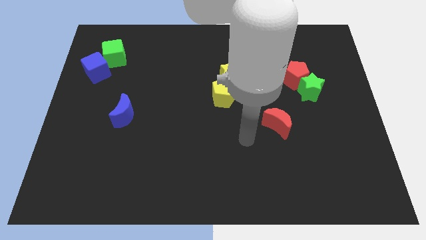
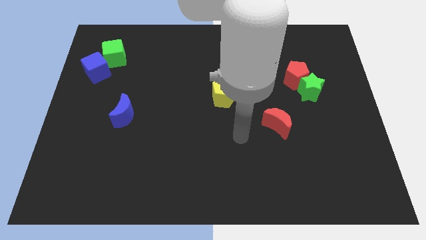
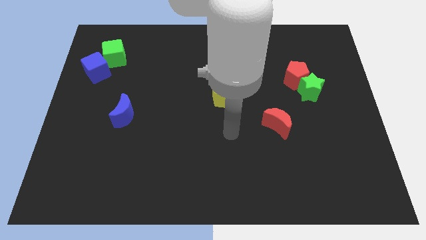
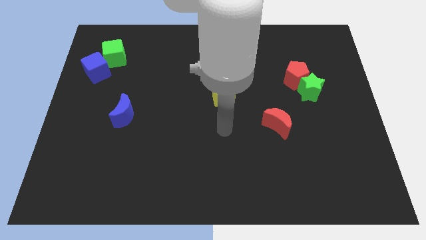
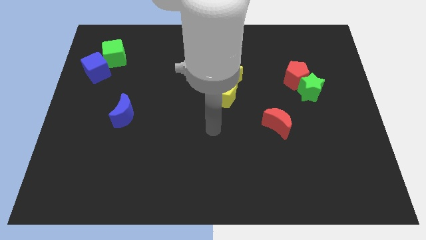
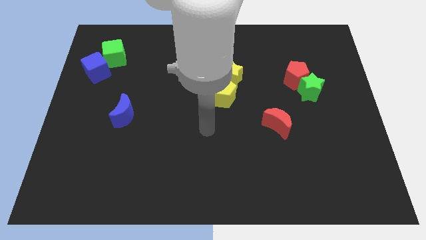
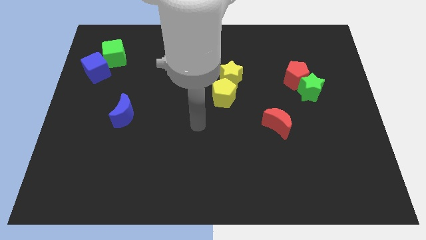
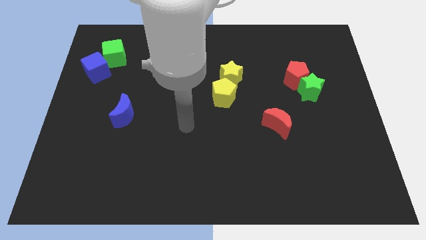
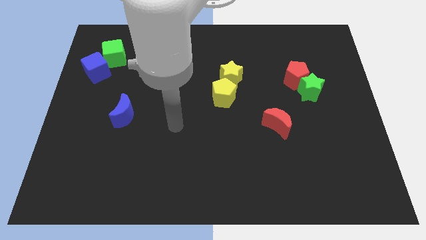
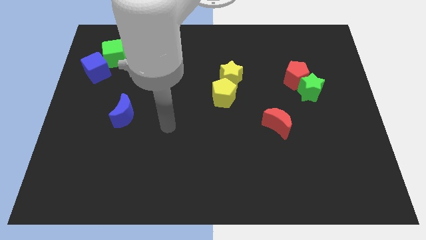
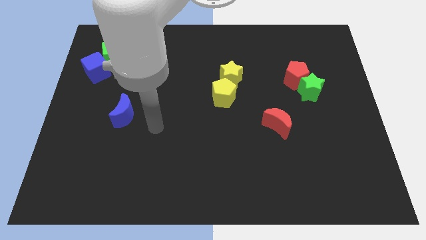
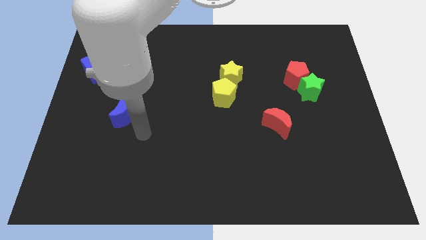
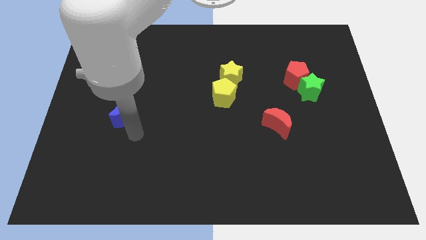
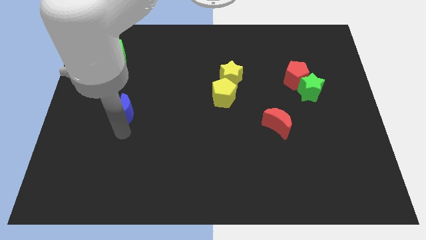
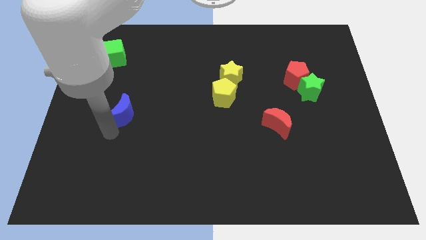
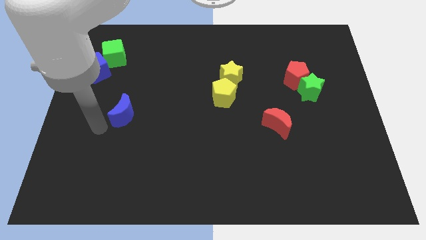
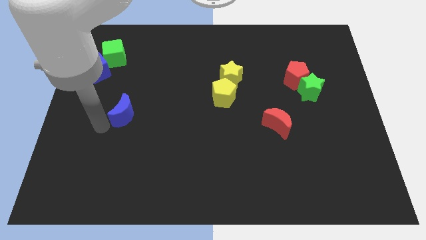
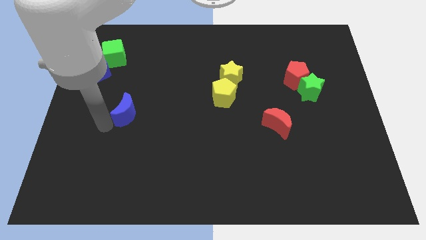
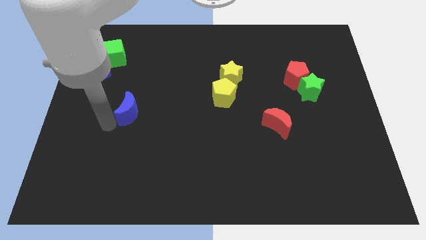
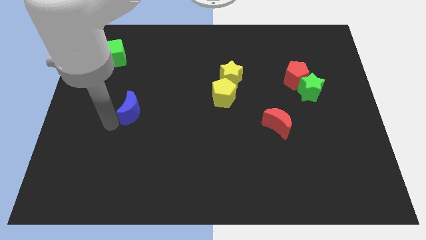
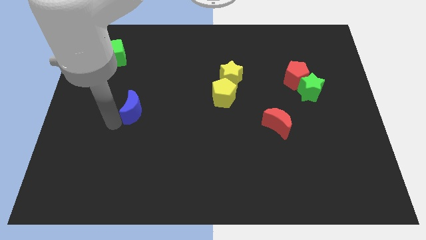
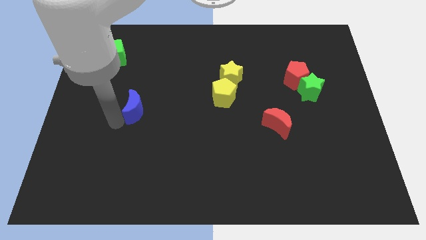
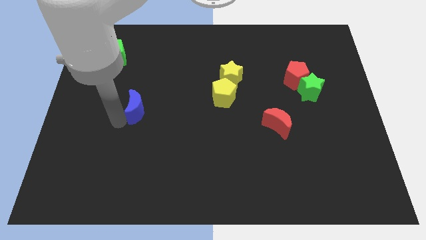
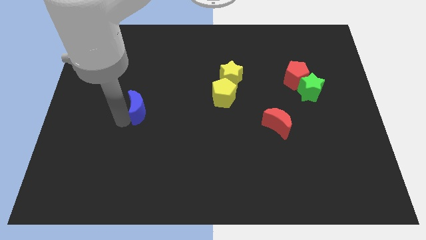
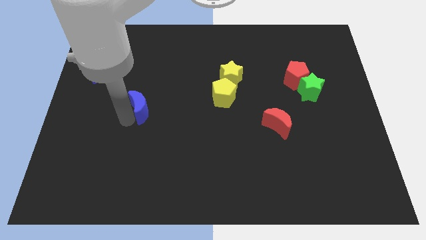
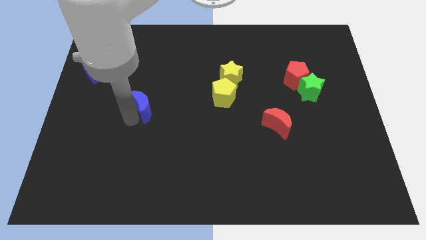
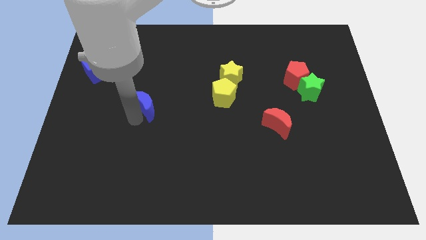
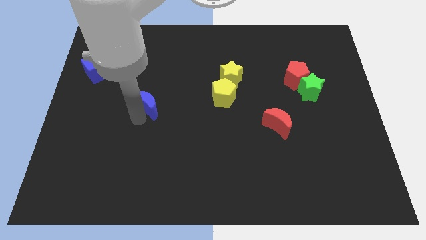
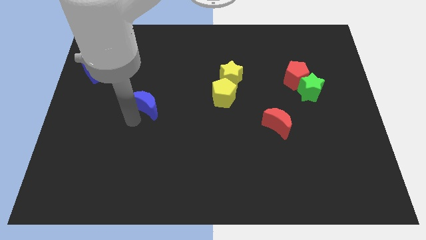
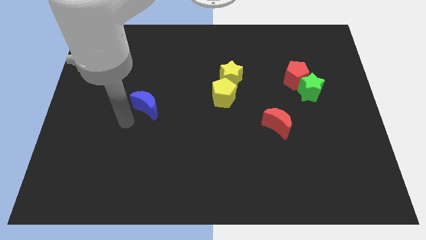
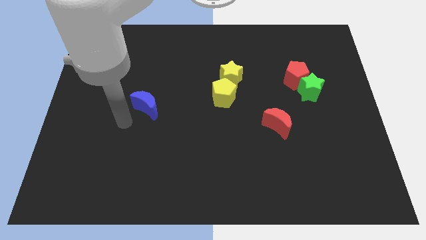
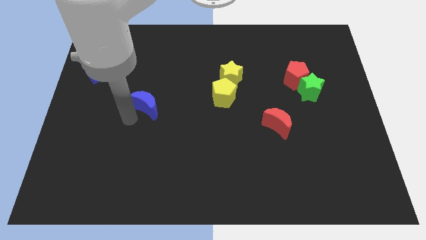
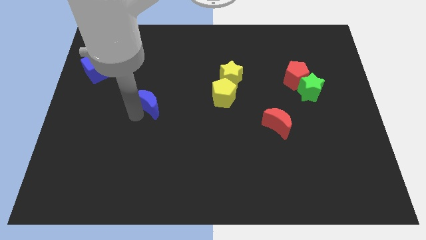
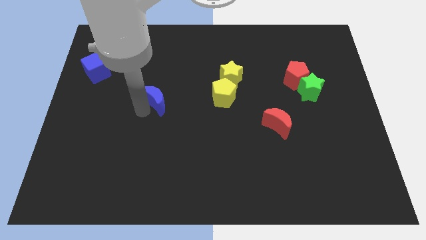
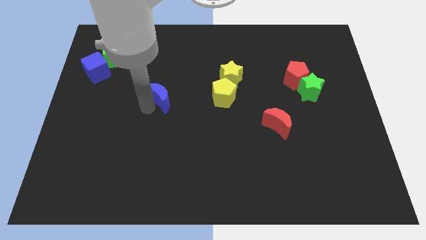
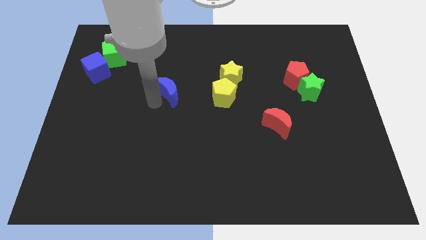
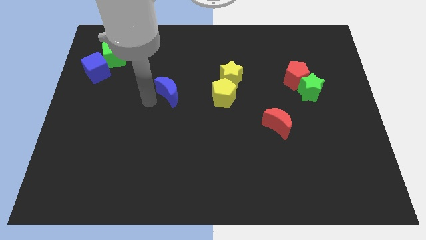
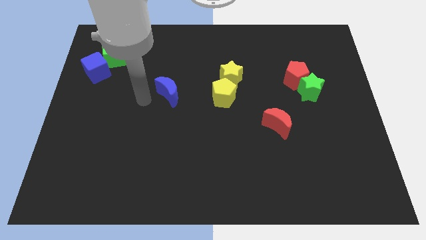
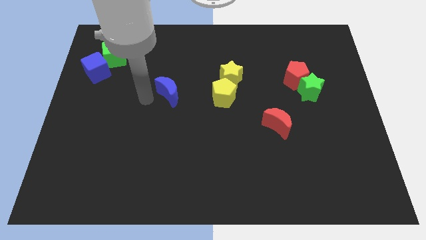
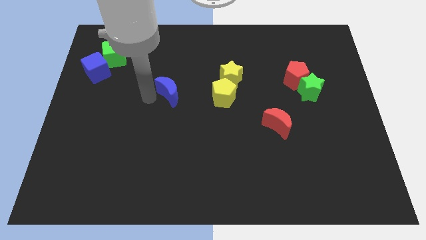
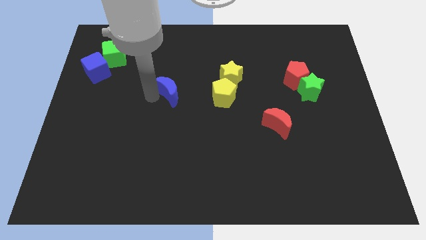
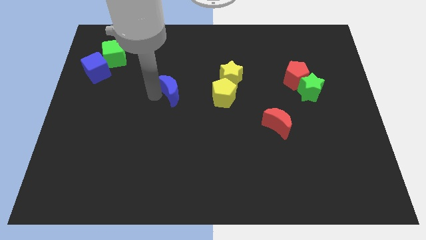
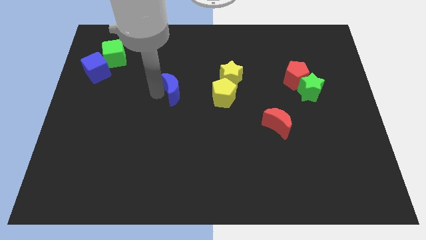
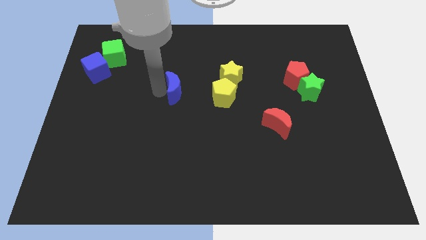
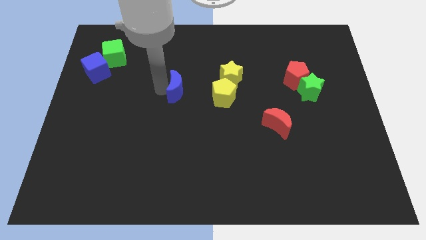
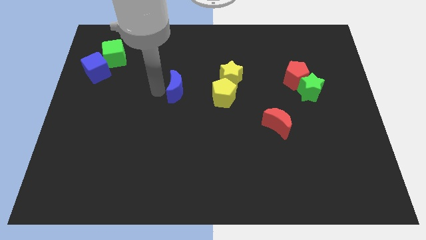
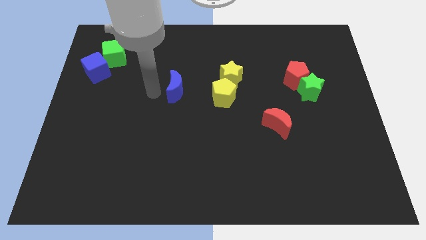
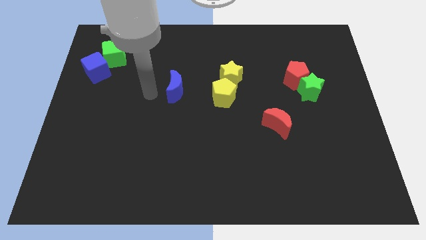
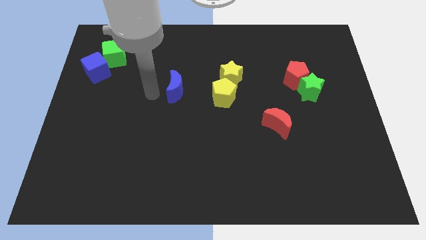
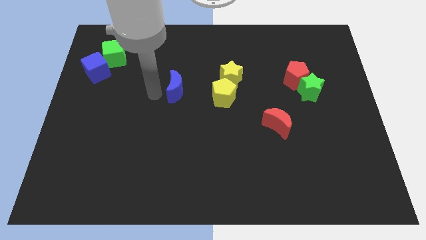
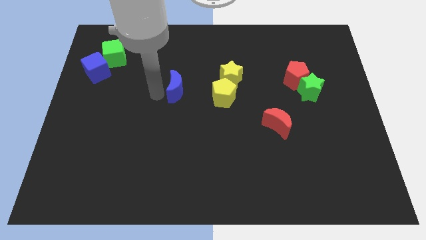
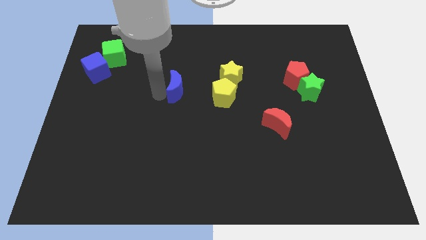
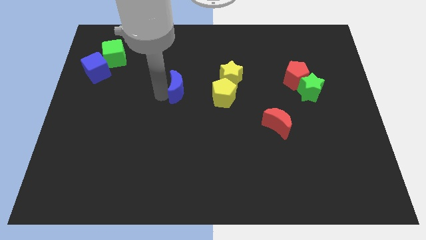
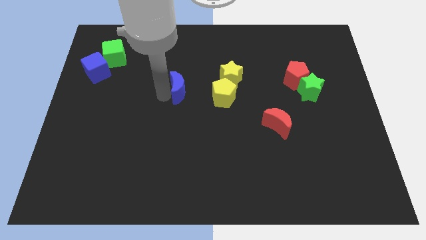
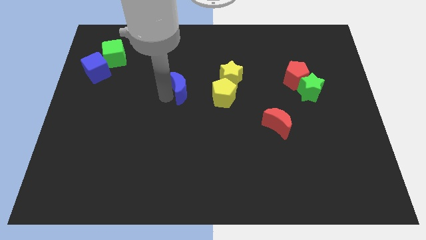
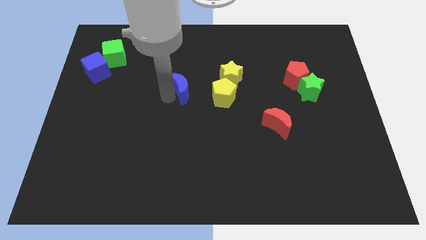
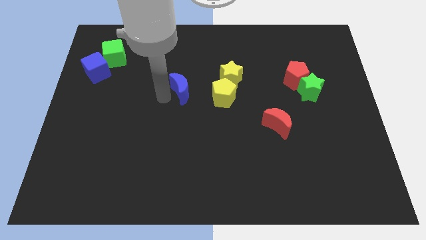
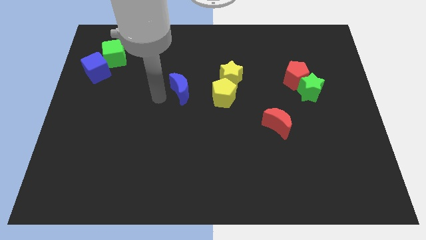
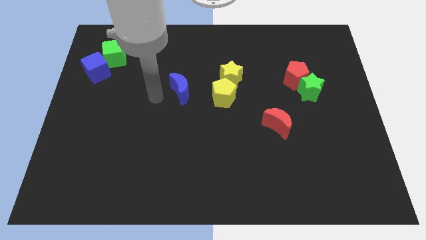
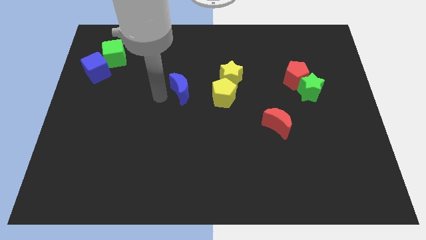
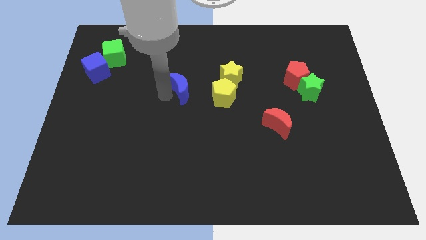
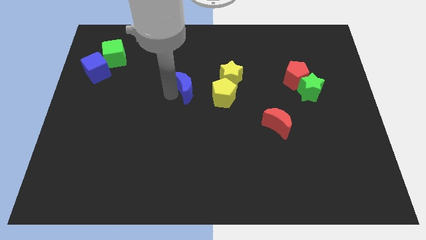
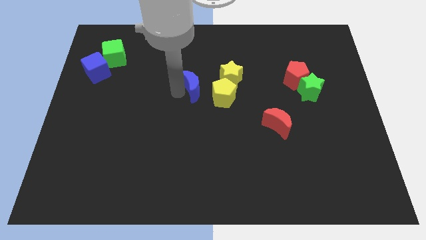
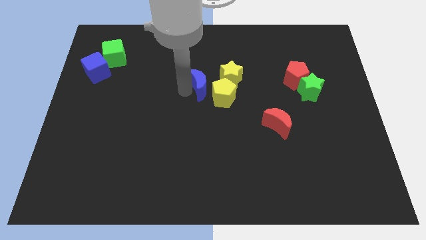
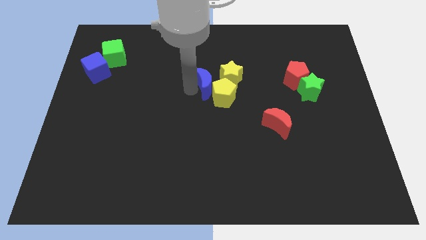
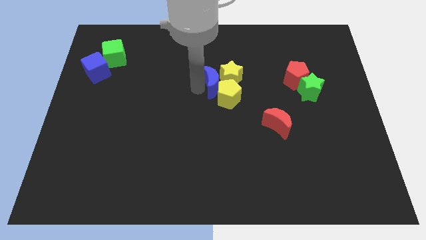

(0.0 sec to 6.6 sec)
put the blue moon close to the yellow star
